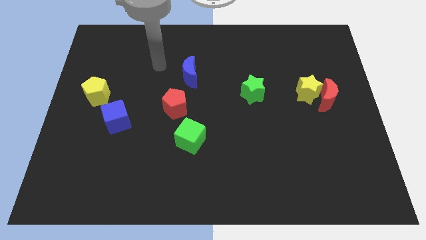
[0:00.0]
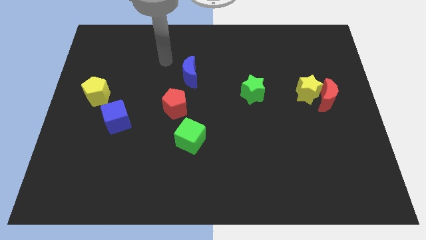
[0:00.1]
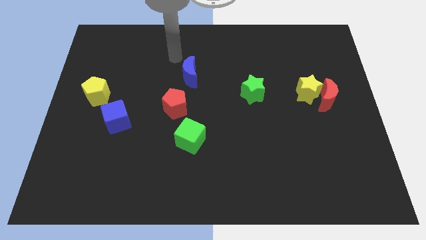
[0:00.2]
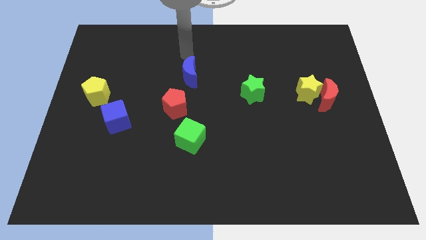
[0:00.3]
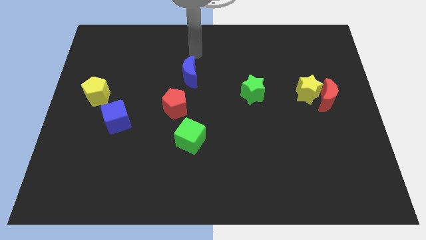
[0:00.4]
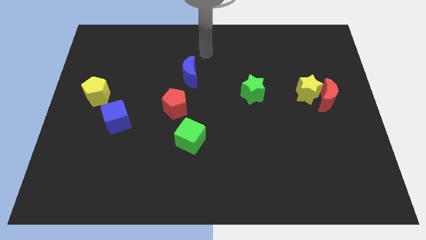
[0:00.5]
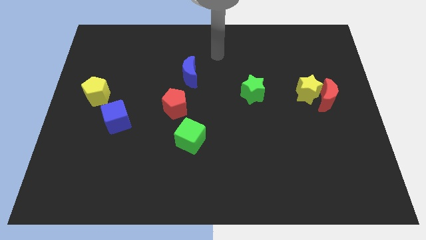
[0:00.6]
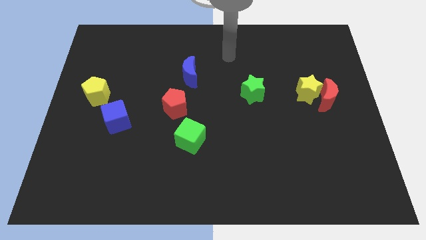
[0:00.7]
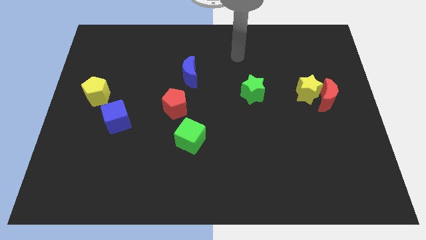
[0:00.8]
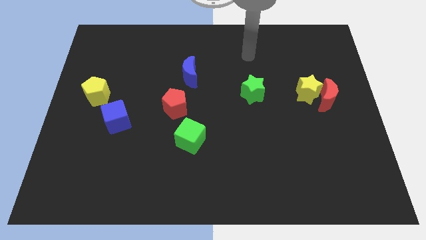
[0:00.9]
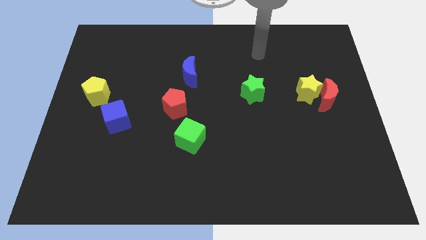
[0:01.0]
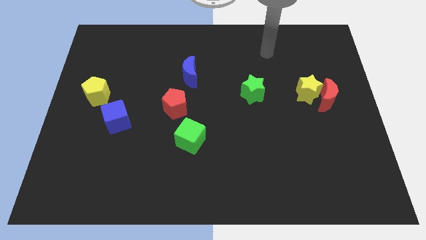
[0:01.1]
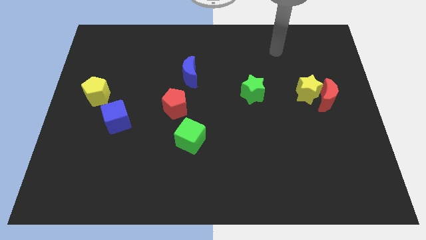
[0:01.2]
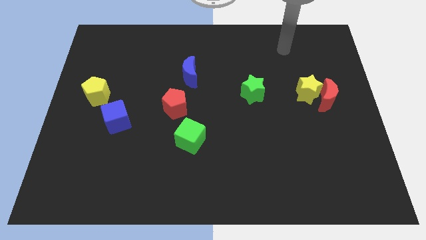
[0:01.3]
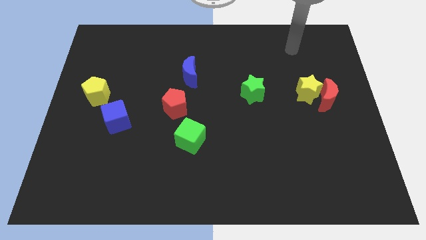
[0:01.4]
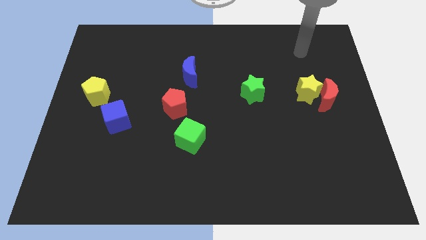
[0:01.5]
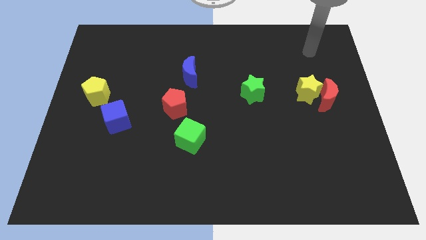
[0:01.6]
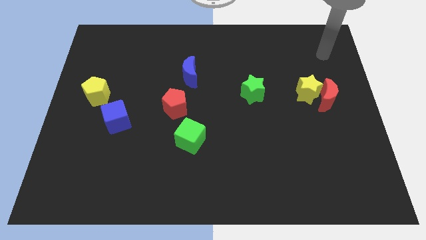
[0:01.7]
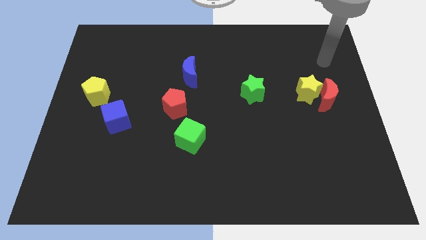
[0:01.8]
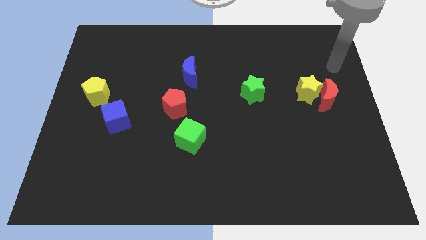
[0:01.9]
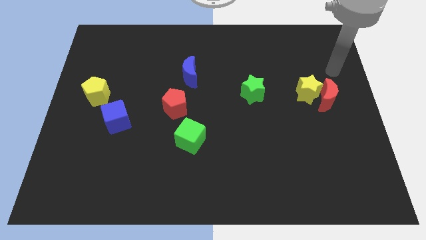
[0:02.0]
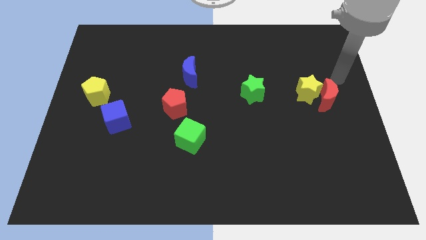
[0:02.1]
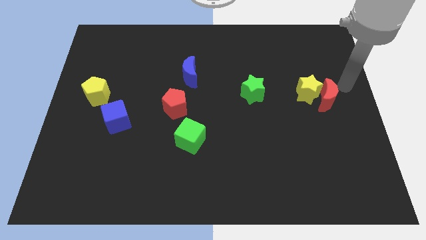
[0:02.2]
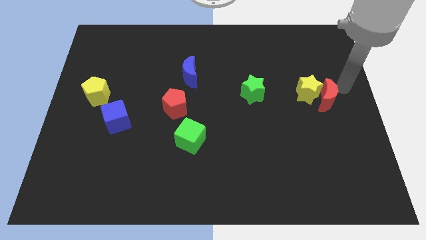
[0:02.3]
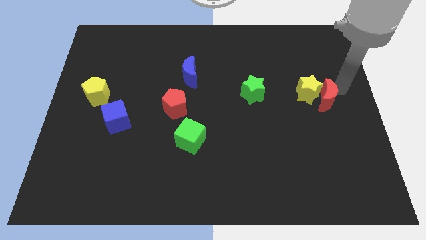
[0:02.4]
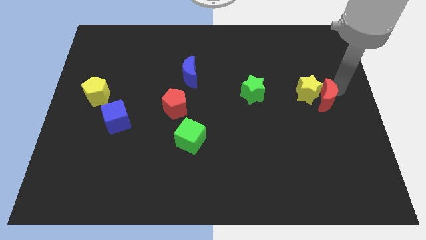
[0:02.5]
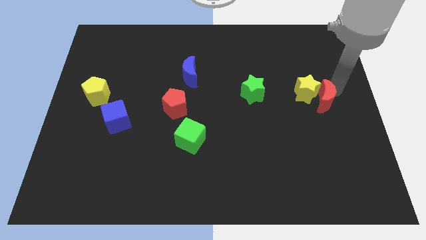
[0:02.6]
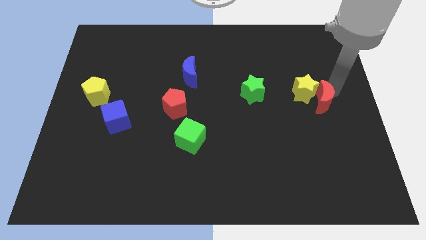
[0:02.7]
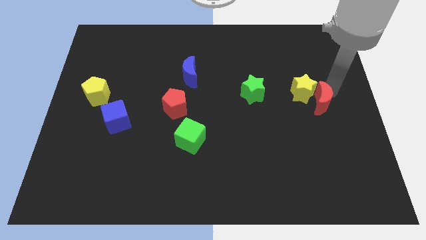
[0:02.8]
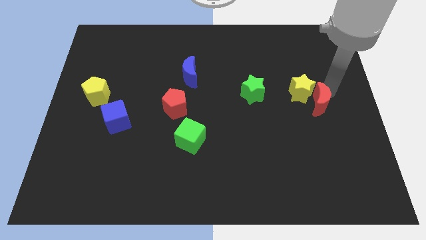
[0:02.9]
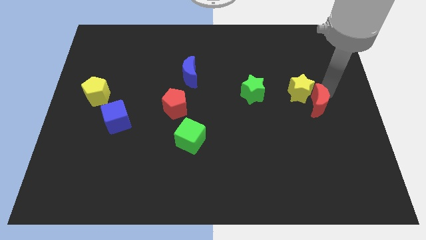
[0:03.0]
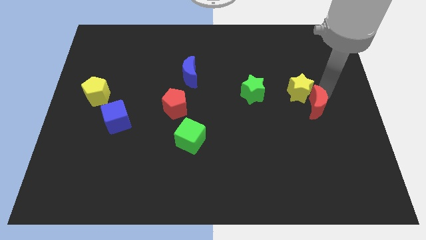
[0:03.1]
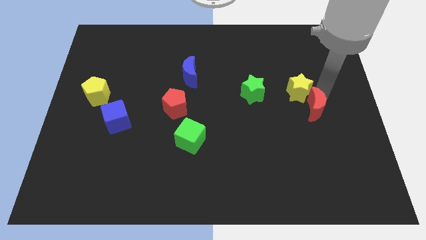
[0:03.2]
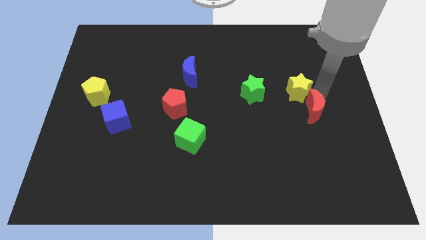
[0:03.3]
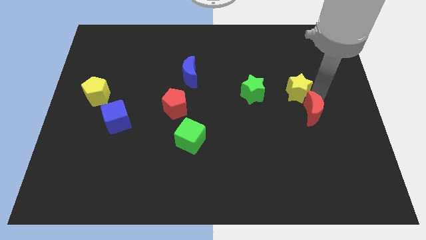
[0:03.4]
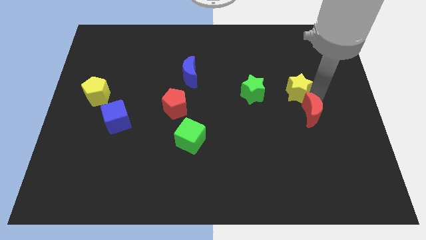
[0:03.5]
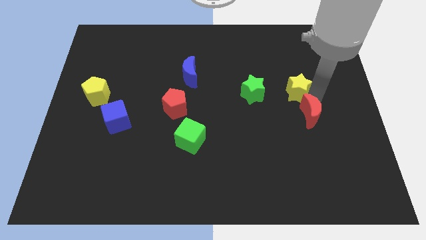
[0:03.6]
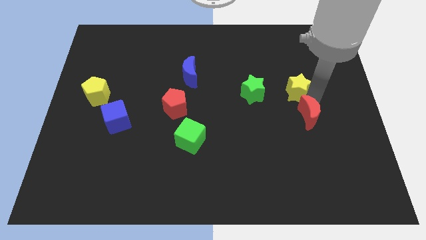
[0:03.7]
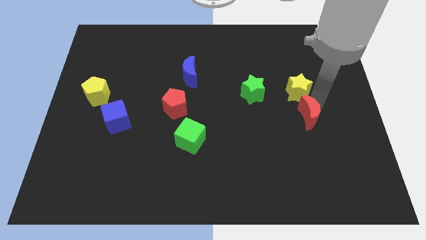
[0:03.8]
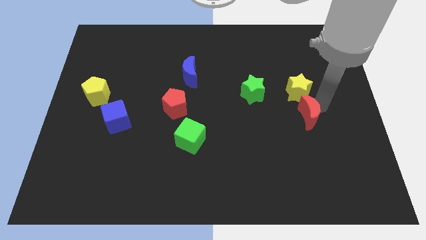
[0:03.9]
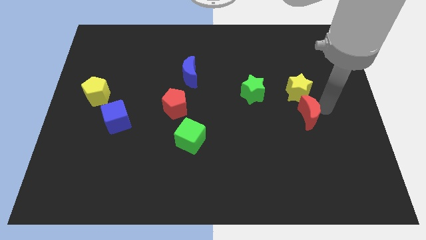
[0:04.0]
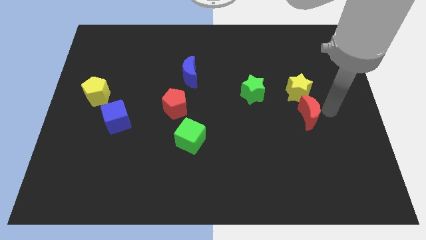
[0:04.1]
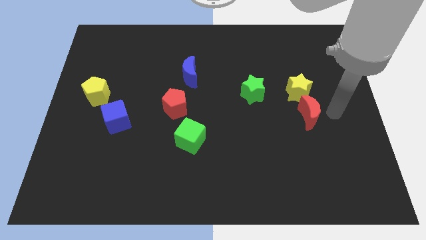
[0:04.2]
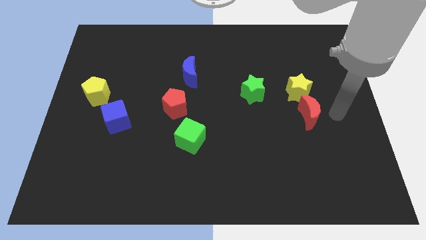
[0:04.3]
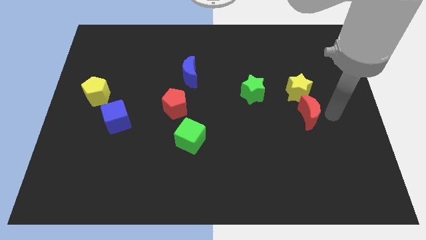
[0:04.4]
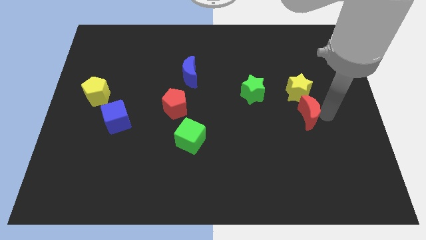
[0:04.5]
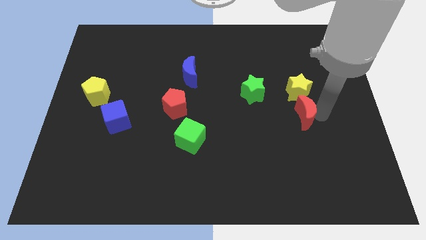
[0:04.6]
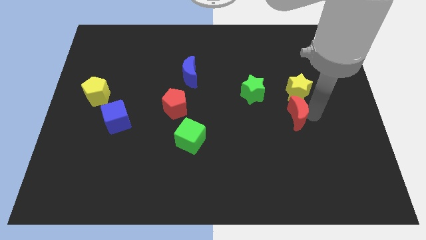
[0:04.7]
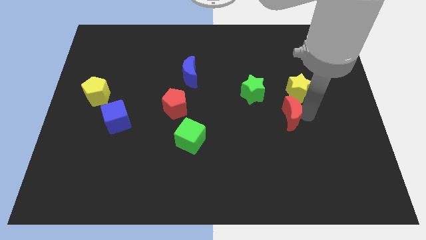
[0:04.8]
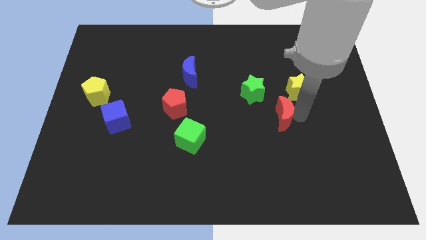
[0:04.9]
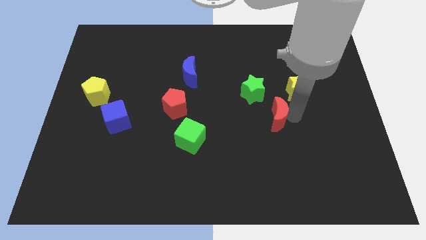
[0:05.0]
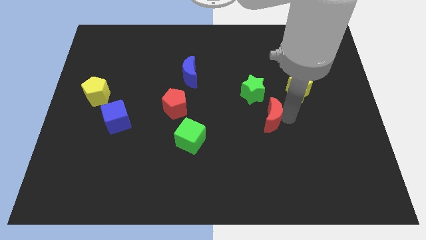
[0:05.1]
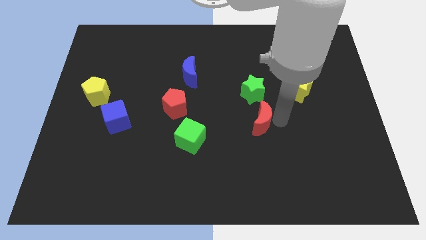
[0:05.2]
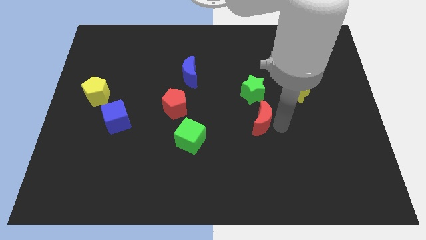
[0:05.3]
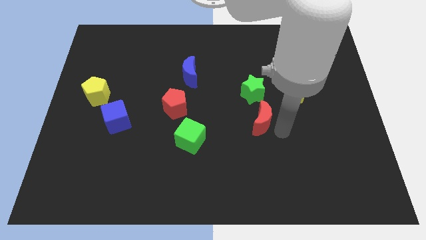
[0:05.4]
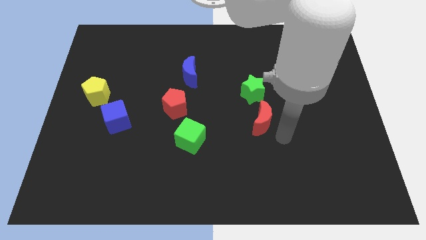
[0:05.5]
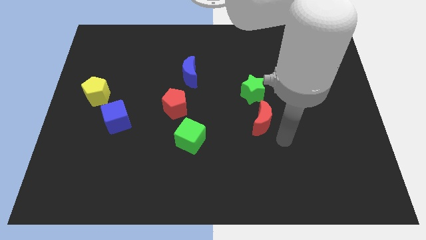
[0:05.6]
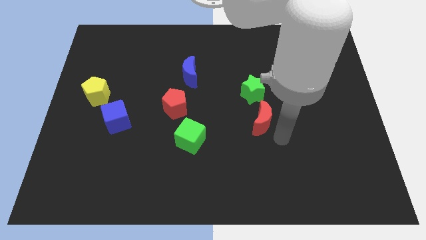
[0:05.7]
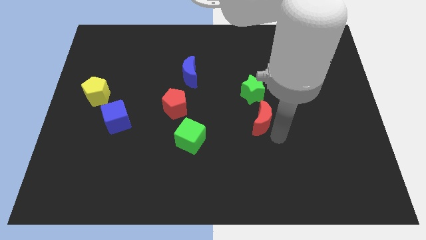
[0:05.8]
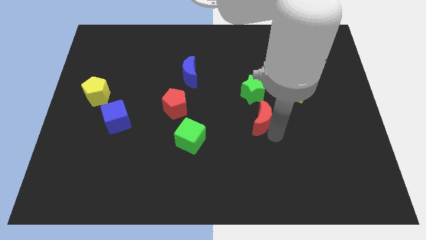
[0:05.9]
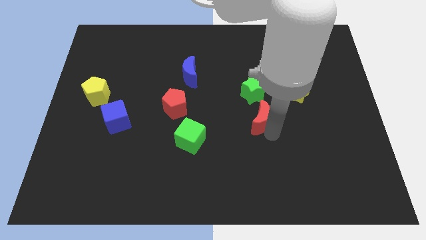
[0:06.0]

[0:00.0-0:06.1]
slide the red moon to the center
